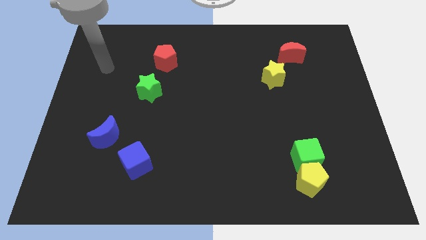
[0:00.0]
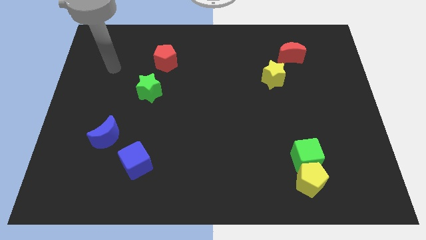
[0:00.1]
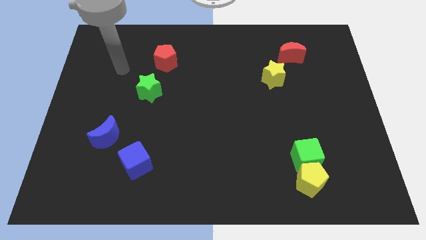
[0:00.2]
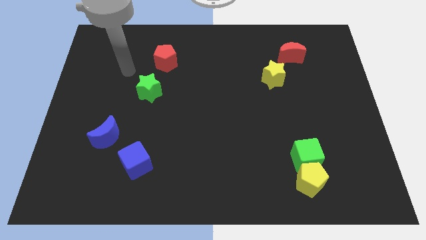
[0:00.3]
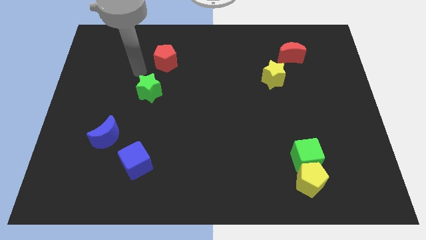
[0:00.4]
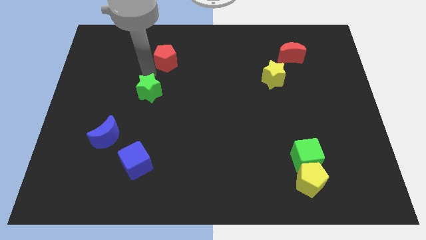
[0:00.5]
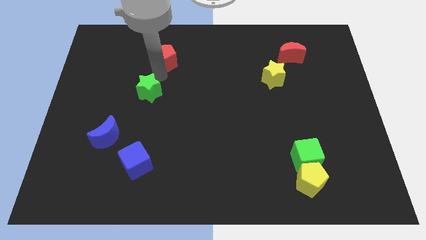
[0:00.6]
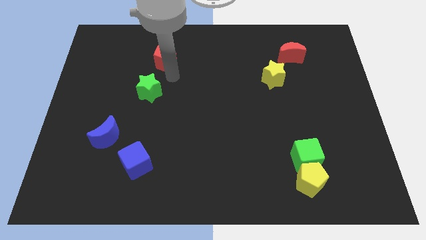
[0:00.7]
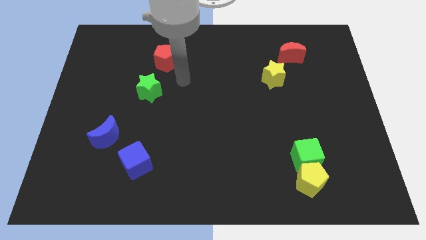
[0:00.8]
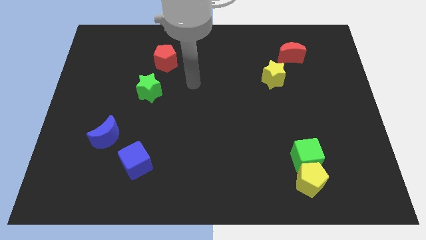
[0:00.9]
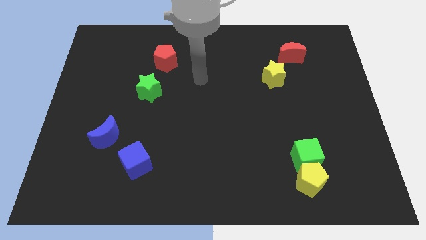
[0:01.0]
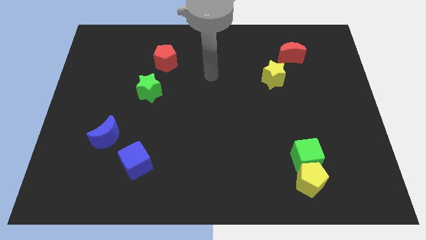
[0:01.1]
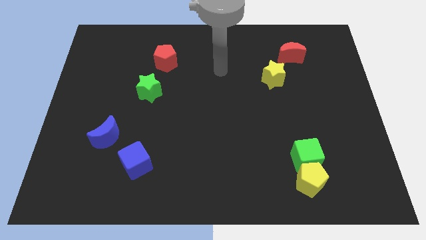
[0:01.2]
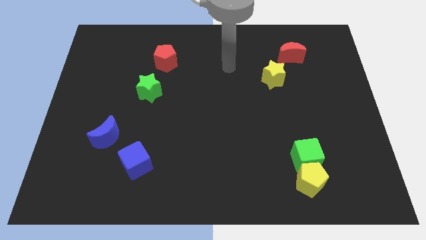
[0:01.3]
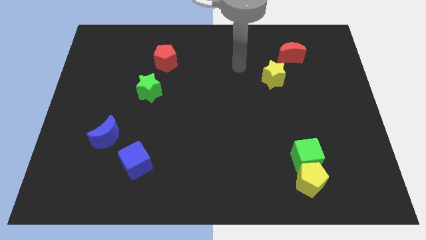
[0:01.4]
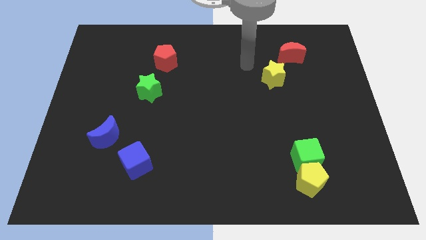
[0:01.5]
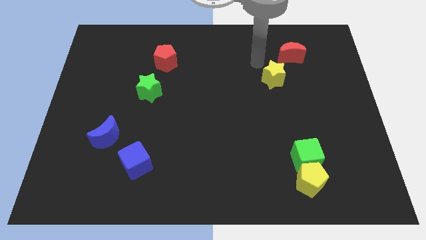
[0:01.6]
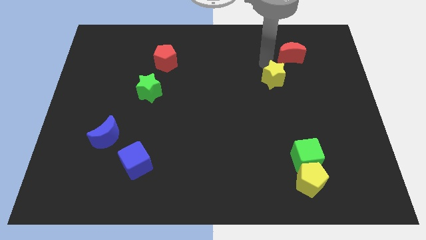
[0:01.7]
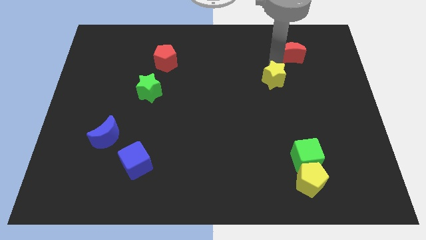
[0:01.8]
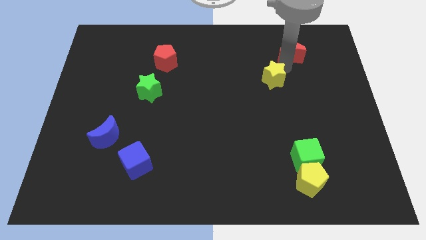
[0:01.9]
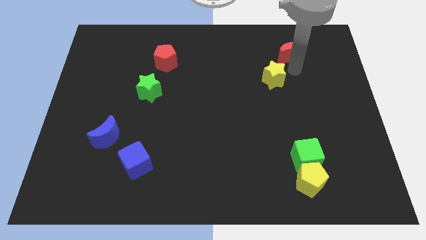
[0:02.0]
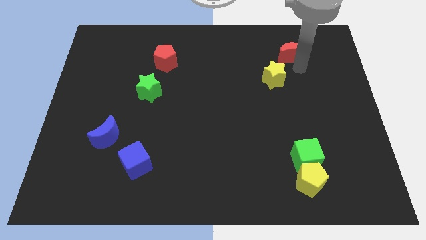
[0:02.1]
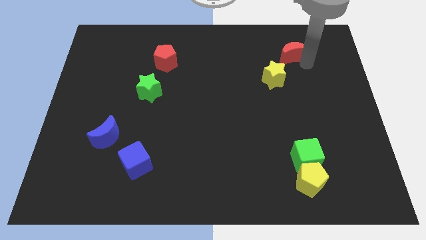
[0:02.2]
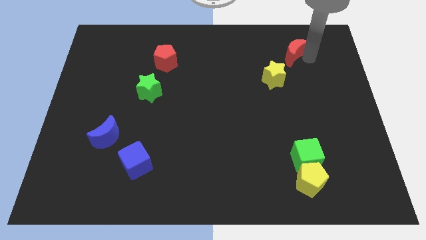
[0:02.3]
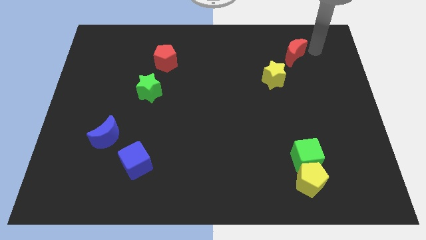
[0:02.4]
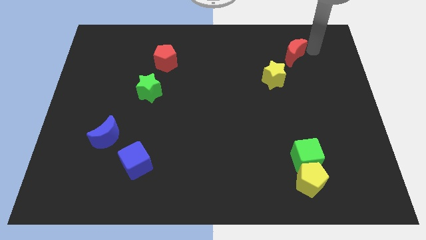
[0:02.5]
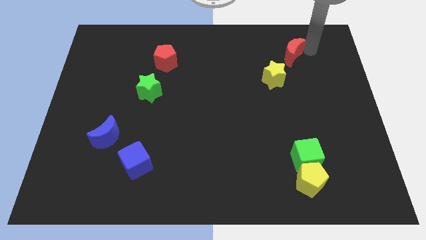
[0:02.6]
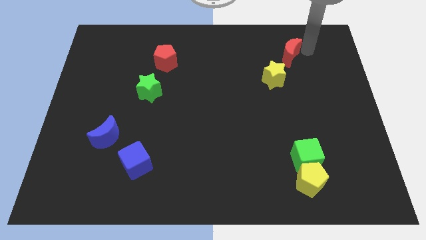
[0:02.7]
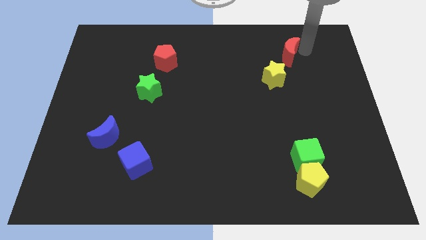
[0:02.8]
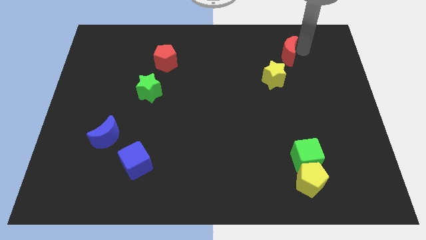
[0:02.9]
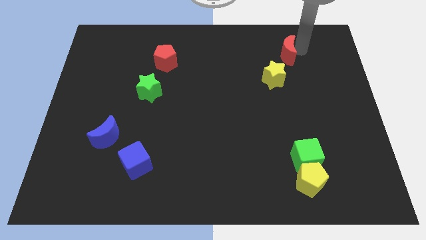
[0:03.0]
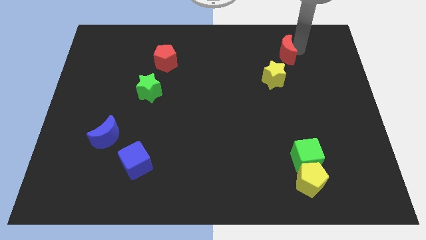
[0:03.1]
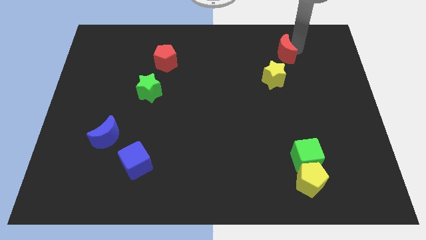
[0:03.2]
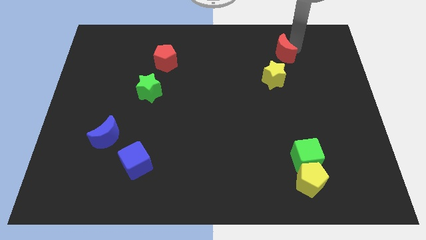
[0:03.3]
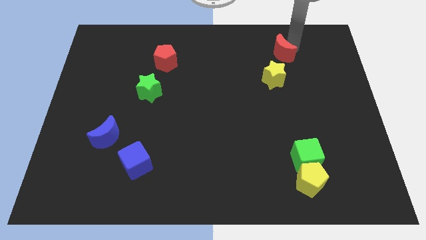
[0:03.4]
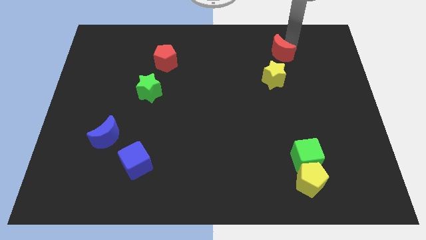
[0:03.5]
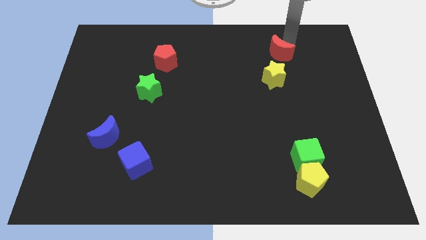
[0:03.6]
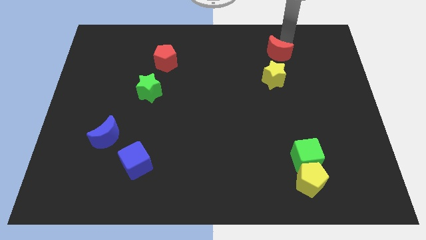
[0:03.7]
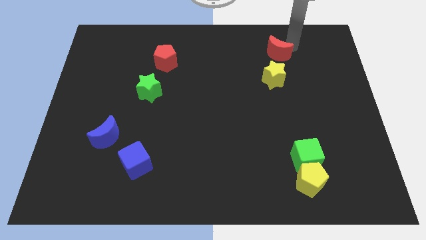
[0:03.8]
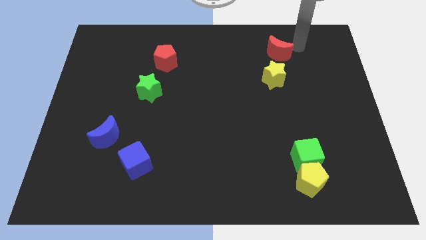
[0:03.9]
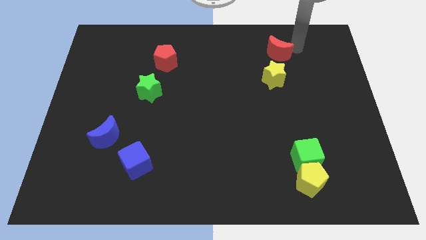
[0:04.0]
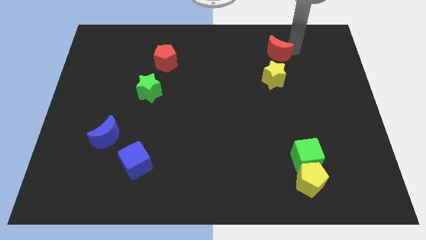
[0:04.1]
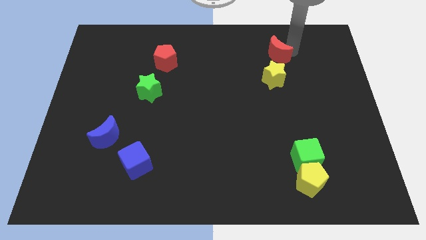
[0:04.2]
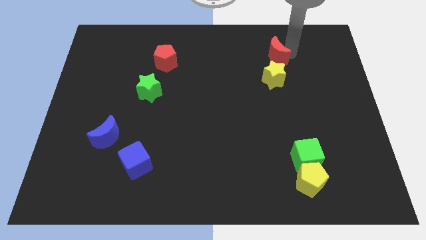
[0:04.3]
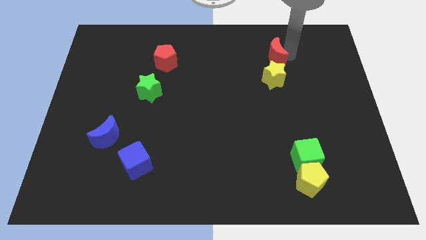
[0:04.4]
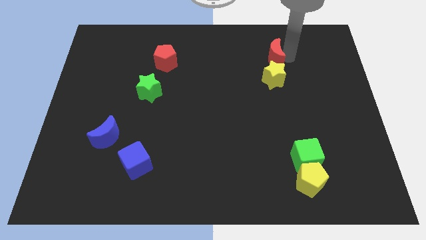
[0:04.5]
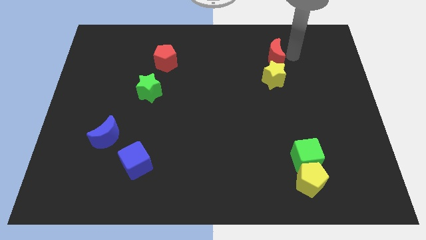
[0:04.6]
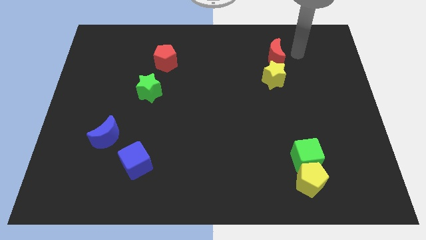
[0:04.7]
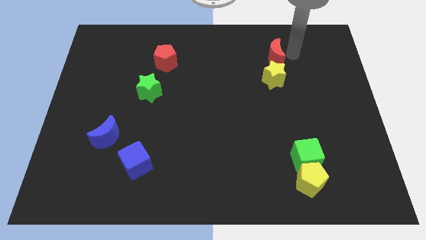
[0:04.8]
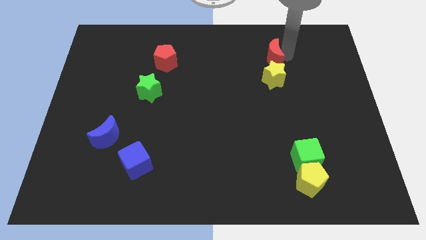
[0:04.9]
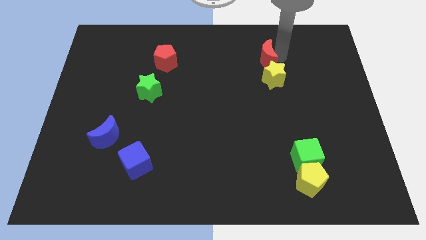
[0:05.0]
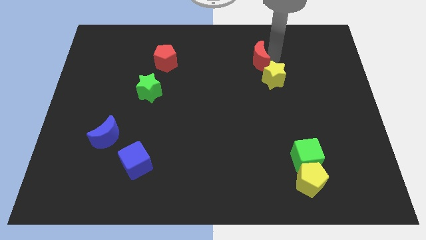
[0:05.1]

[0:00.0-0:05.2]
slide the red moon left a bit

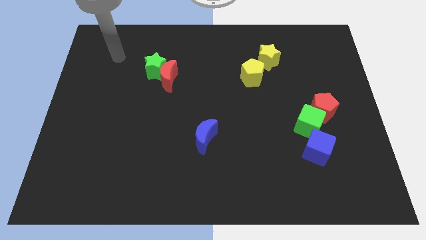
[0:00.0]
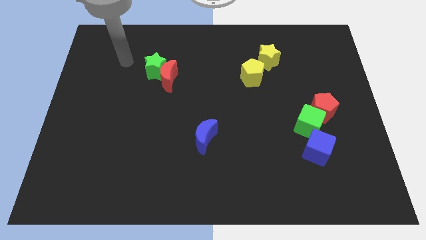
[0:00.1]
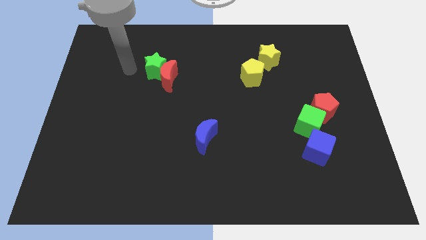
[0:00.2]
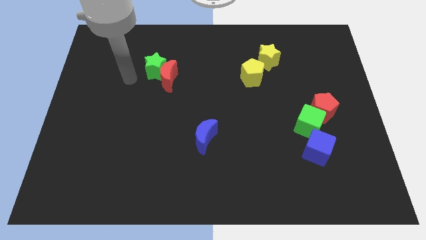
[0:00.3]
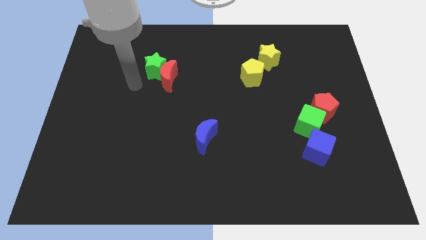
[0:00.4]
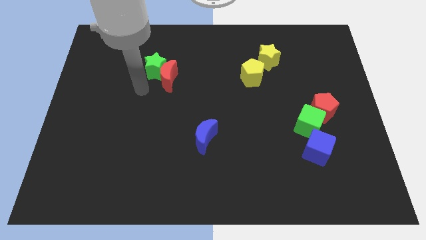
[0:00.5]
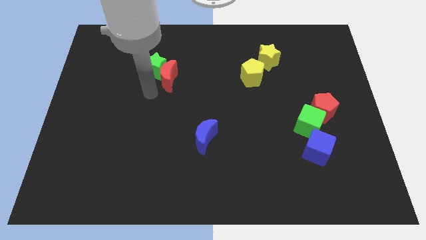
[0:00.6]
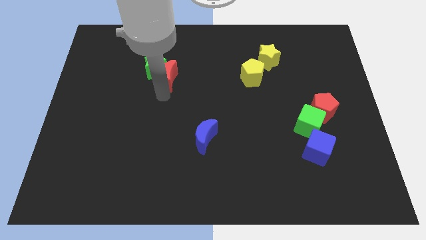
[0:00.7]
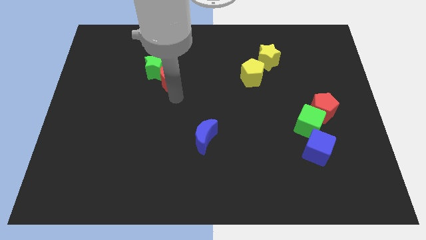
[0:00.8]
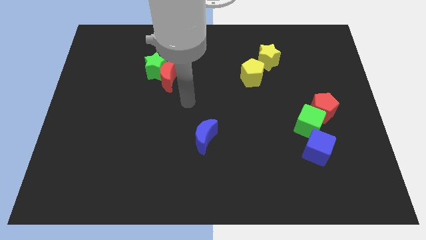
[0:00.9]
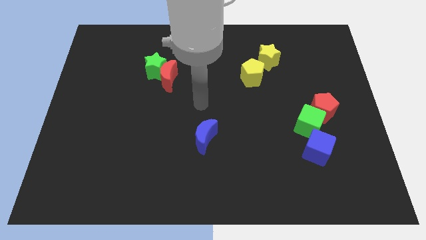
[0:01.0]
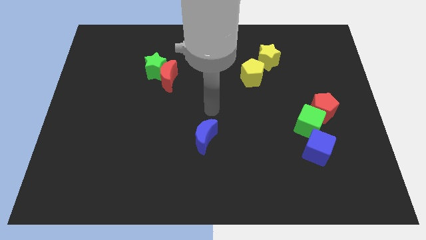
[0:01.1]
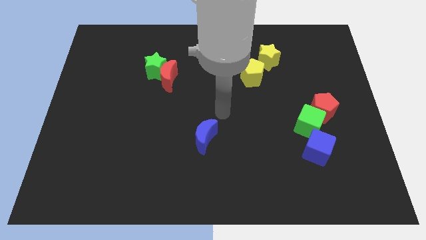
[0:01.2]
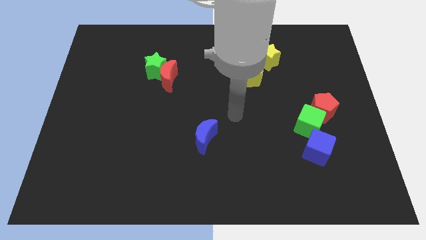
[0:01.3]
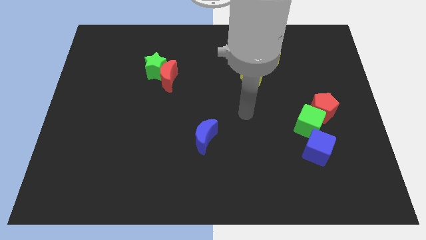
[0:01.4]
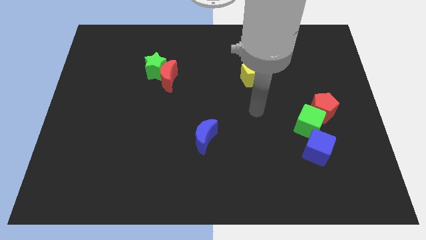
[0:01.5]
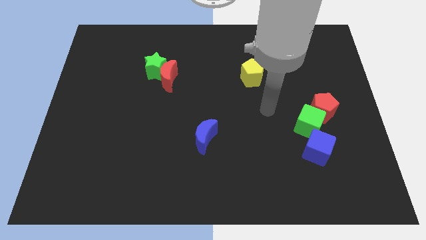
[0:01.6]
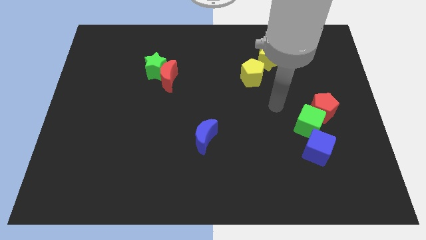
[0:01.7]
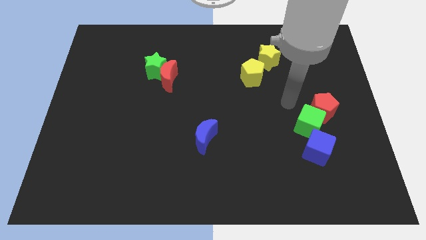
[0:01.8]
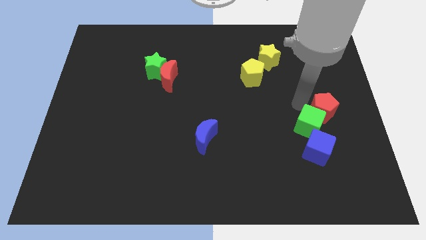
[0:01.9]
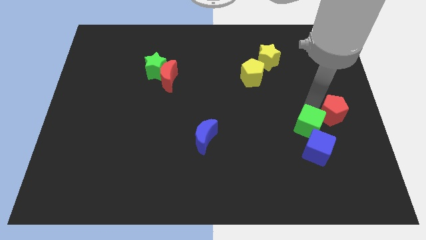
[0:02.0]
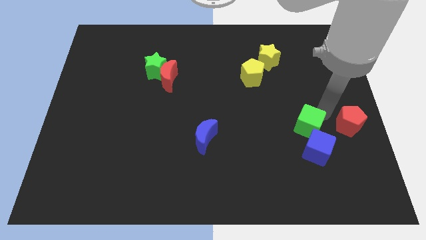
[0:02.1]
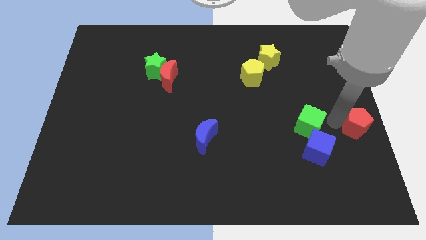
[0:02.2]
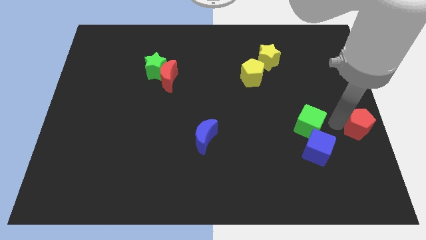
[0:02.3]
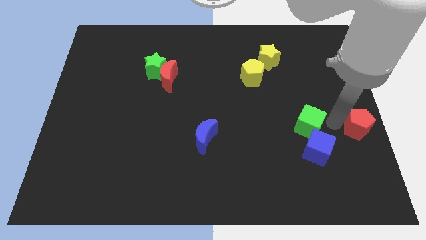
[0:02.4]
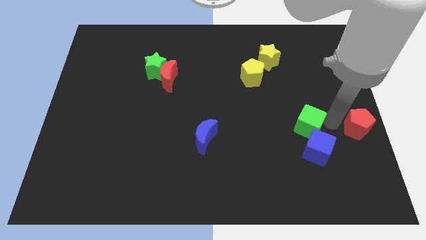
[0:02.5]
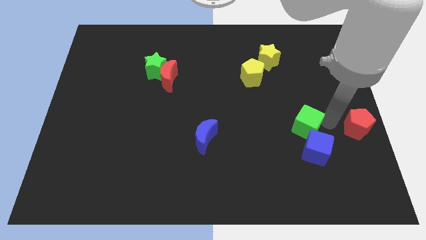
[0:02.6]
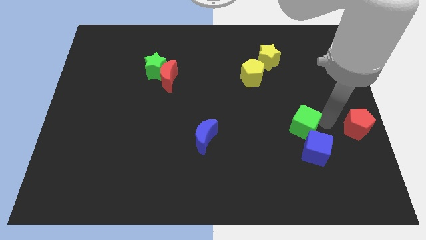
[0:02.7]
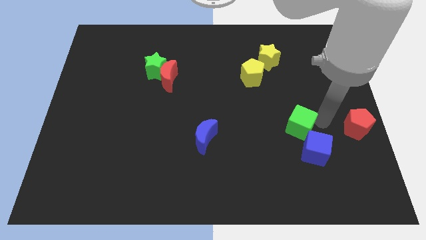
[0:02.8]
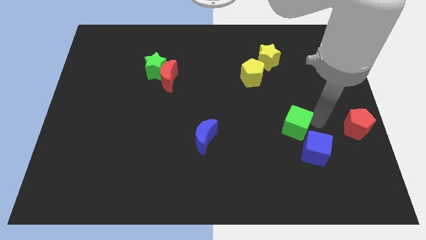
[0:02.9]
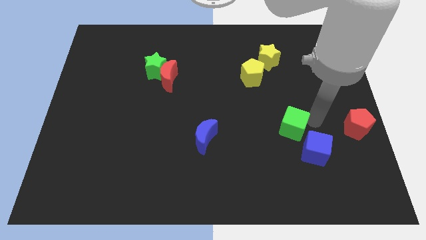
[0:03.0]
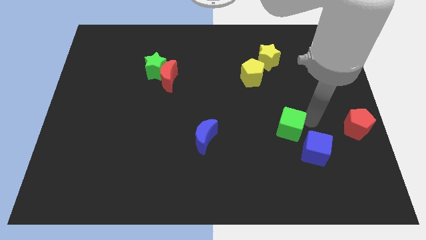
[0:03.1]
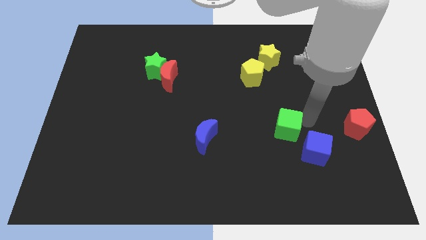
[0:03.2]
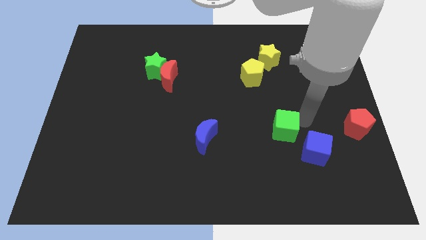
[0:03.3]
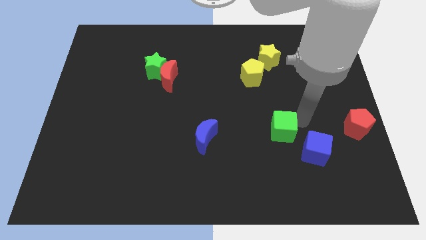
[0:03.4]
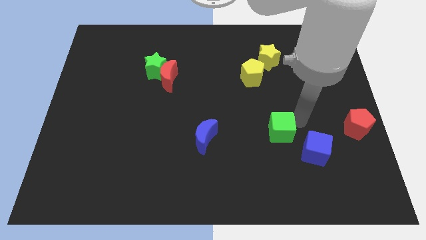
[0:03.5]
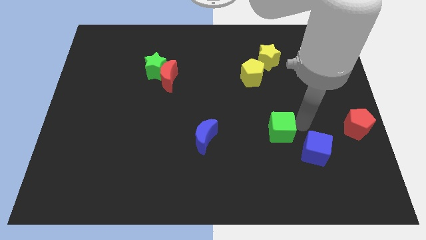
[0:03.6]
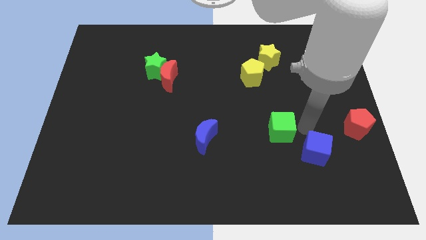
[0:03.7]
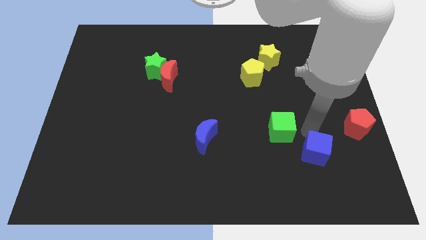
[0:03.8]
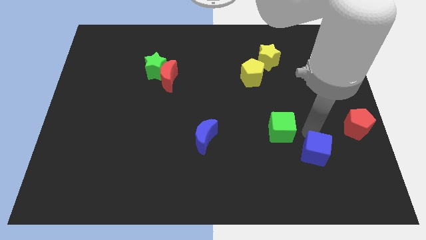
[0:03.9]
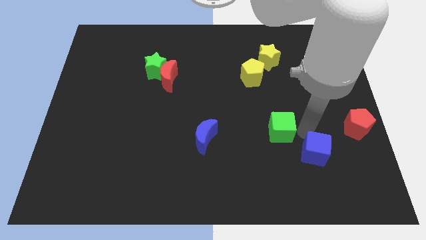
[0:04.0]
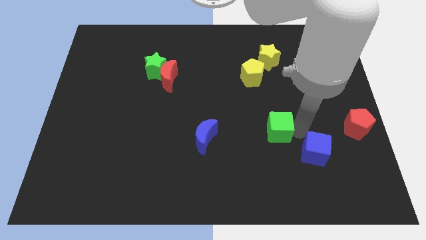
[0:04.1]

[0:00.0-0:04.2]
move the green cube a little bit left
